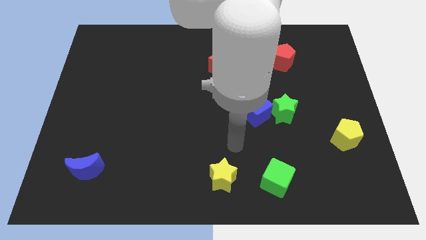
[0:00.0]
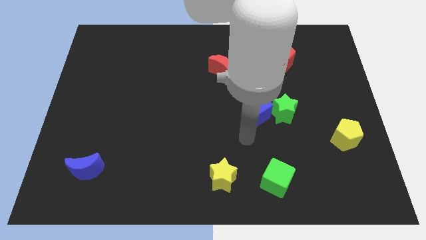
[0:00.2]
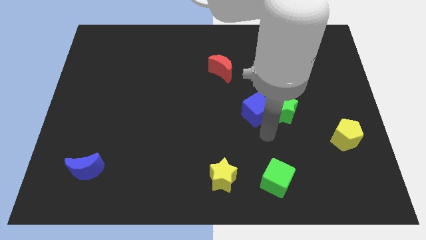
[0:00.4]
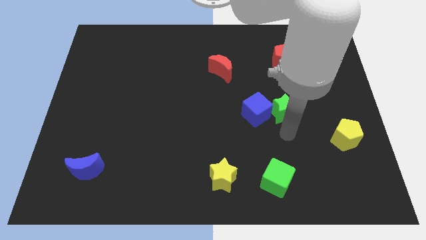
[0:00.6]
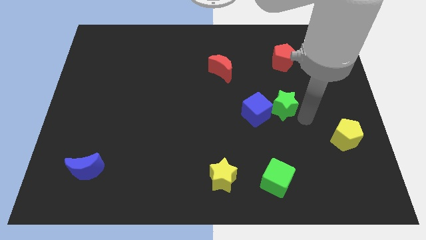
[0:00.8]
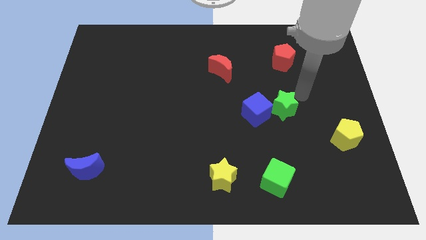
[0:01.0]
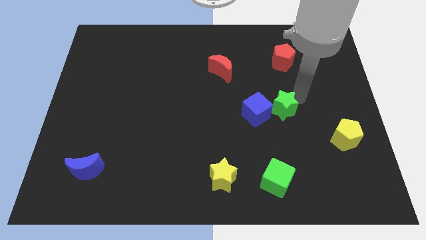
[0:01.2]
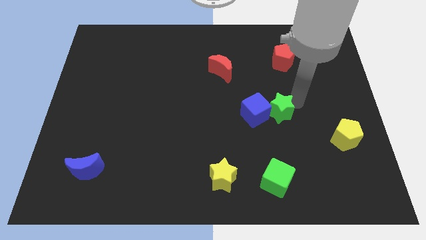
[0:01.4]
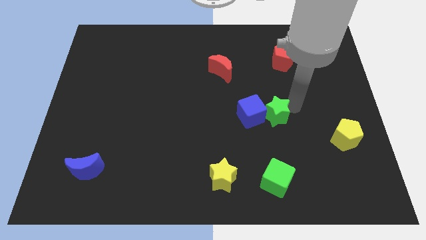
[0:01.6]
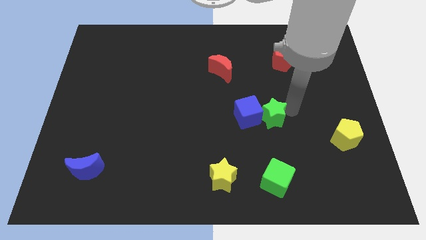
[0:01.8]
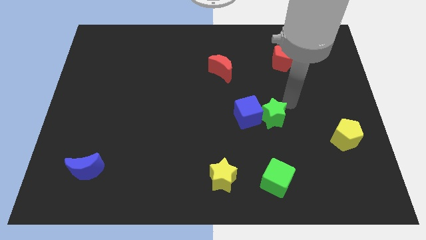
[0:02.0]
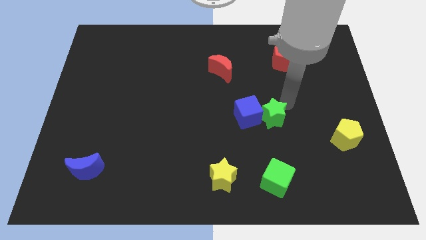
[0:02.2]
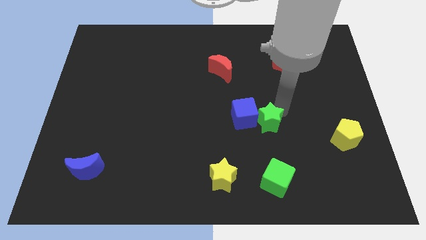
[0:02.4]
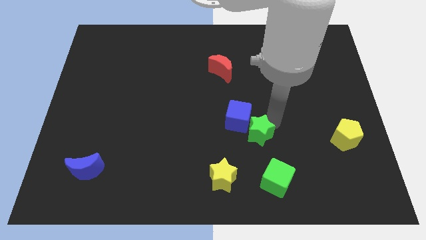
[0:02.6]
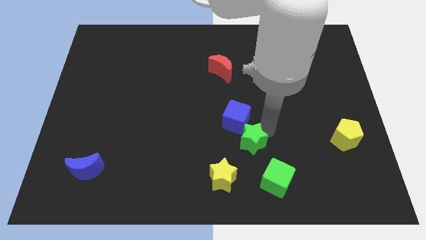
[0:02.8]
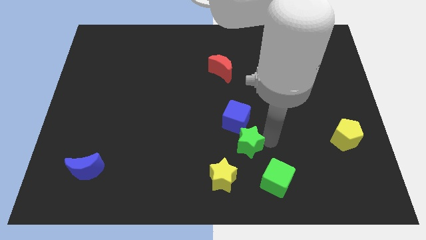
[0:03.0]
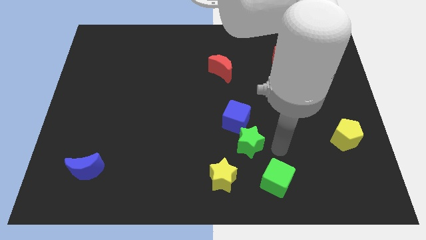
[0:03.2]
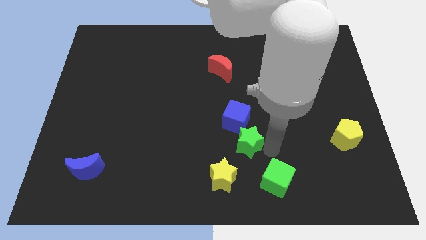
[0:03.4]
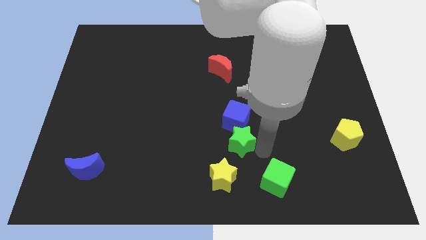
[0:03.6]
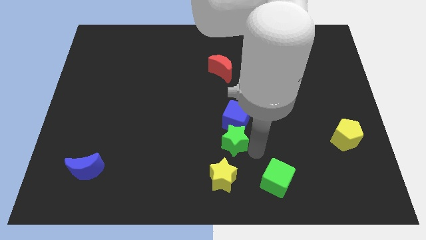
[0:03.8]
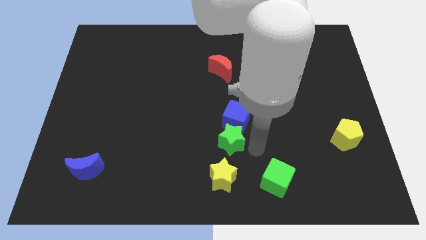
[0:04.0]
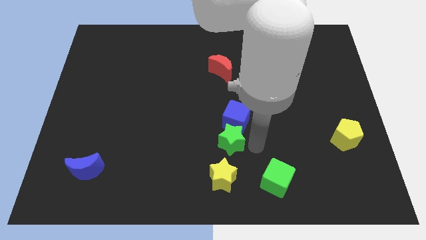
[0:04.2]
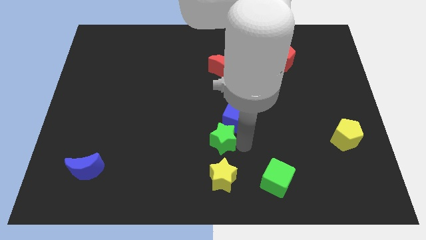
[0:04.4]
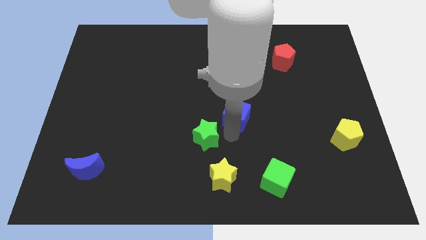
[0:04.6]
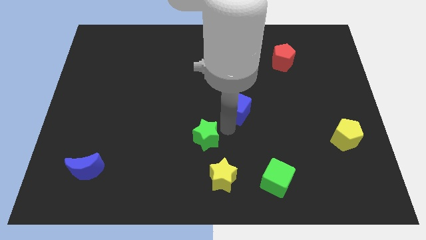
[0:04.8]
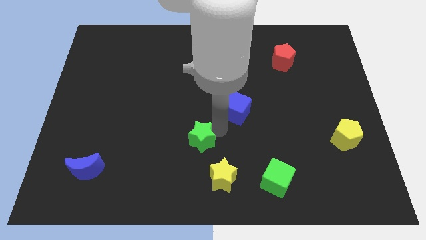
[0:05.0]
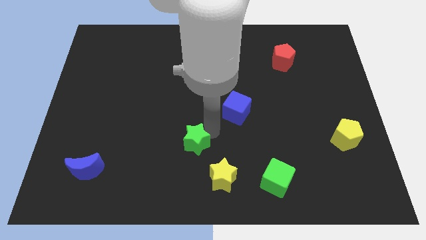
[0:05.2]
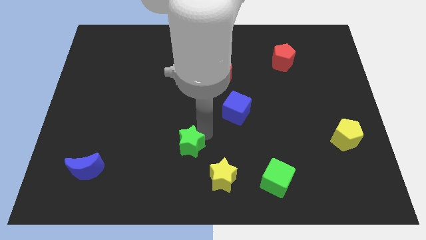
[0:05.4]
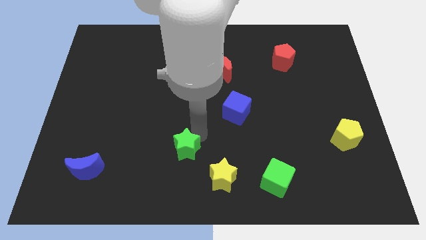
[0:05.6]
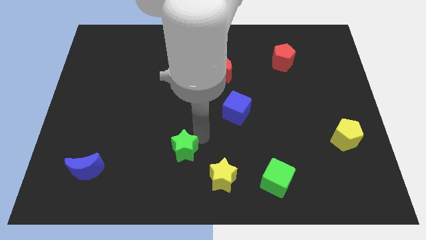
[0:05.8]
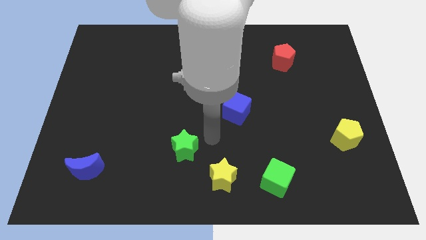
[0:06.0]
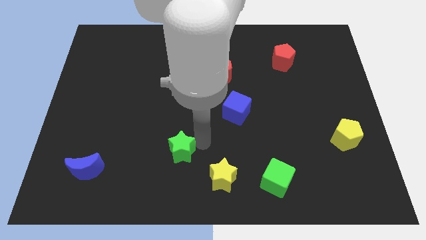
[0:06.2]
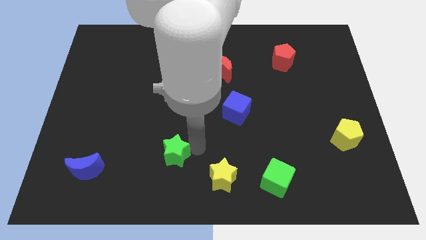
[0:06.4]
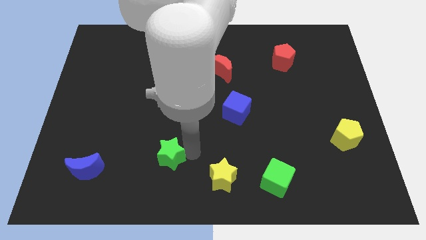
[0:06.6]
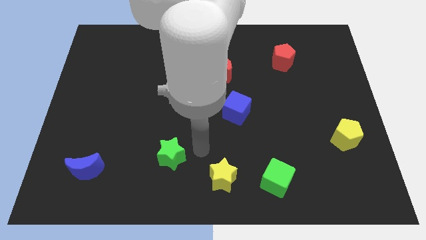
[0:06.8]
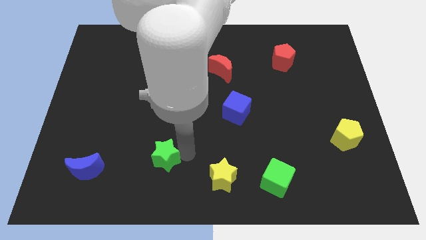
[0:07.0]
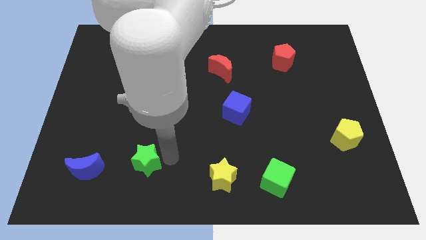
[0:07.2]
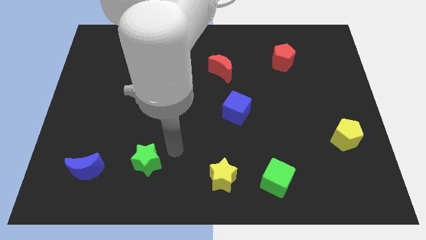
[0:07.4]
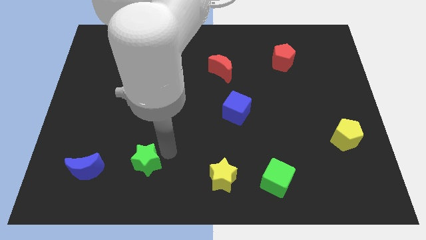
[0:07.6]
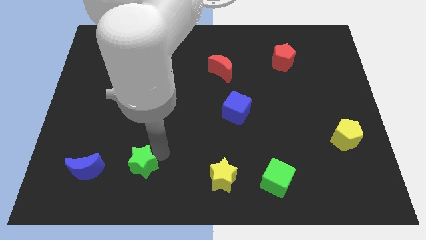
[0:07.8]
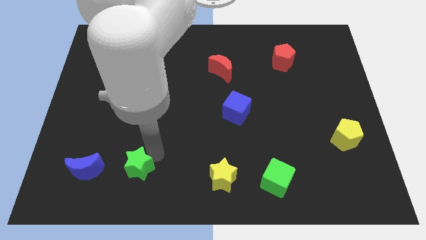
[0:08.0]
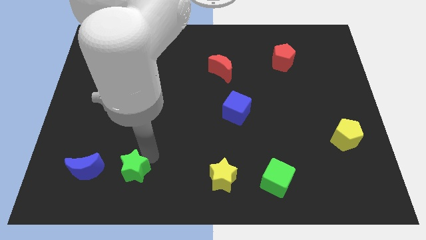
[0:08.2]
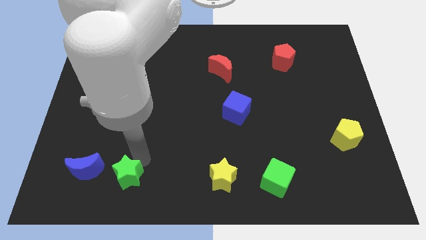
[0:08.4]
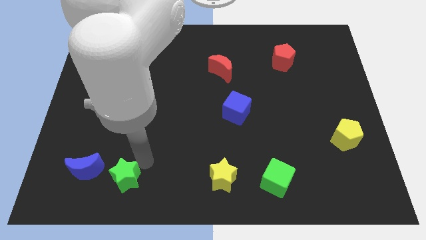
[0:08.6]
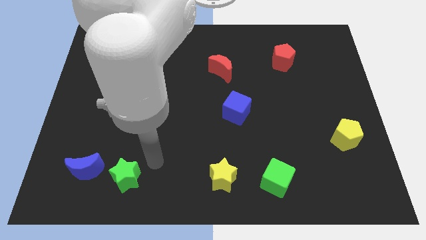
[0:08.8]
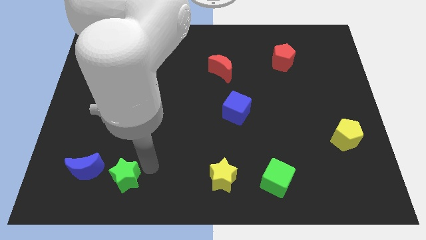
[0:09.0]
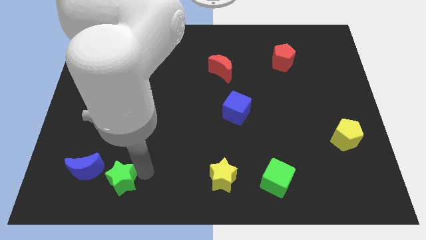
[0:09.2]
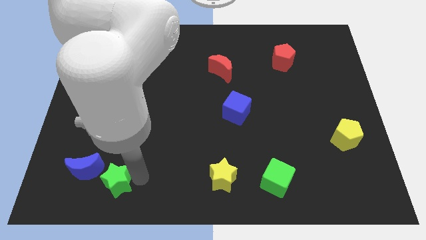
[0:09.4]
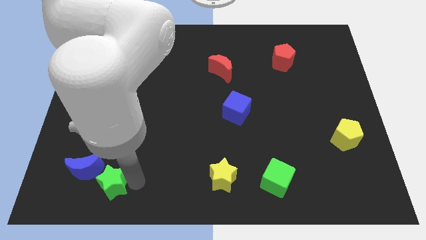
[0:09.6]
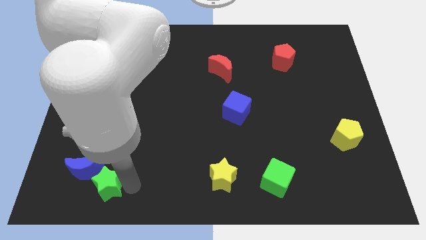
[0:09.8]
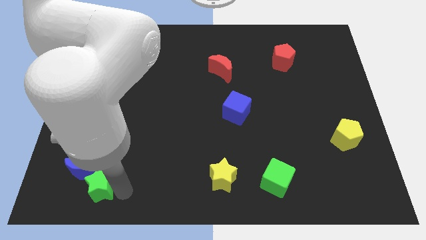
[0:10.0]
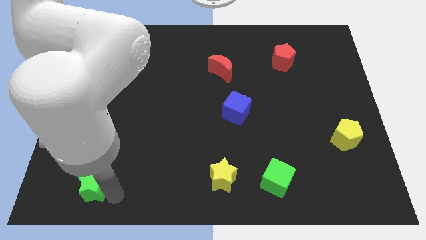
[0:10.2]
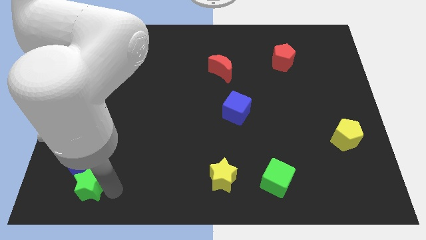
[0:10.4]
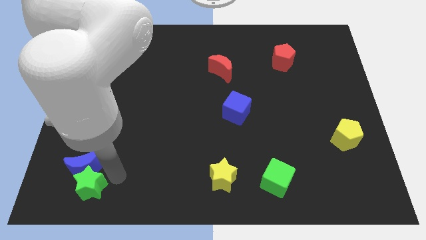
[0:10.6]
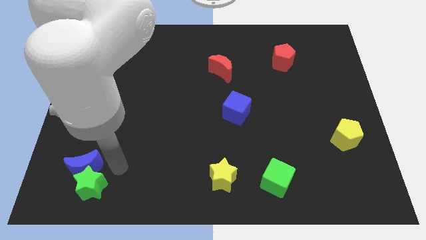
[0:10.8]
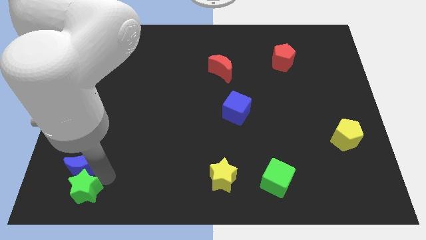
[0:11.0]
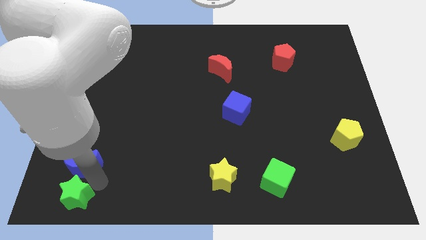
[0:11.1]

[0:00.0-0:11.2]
move the green star to the bottom left of the board

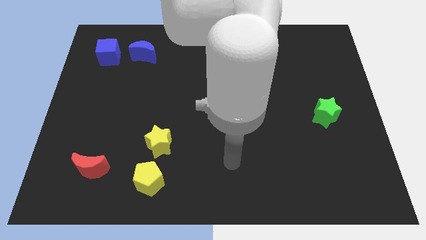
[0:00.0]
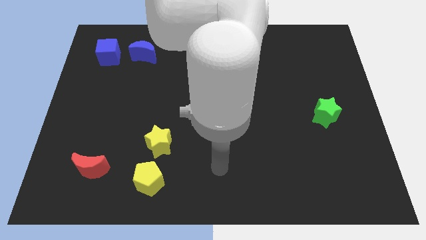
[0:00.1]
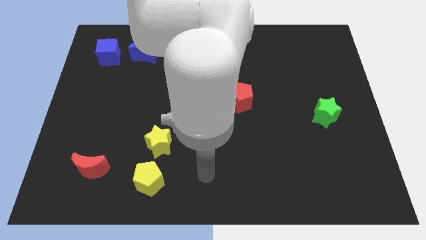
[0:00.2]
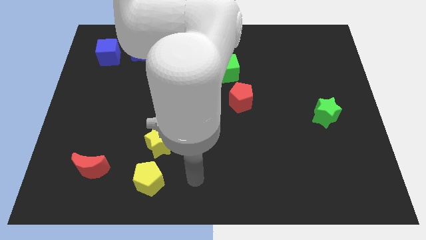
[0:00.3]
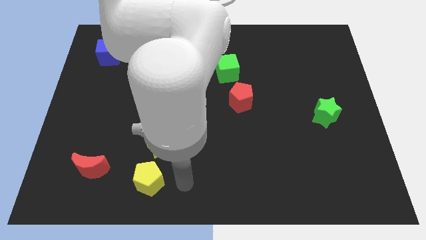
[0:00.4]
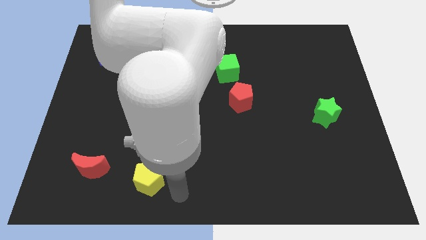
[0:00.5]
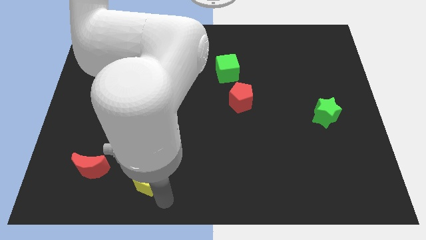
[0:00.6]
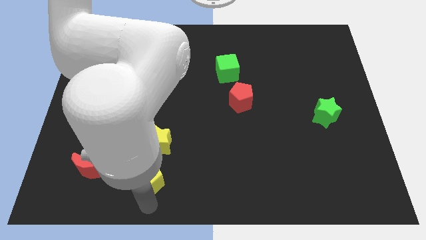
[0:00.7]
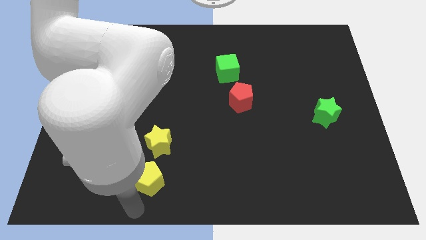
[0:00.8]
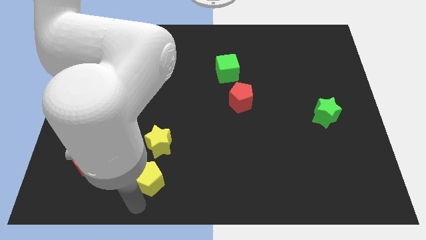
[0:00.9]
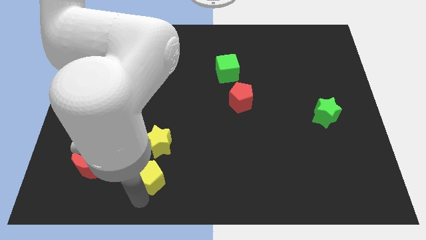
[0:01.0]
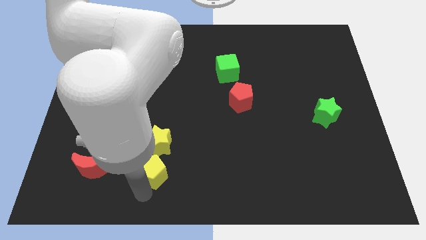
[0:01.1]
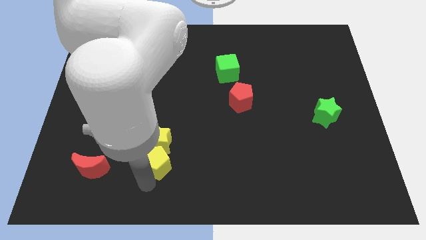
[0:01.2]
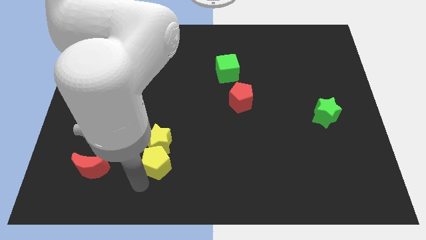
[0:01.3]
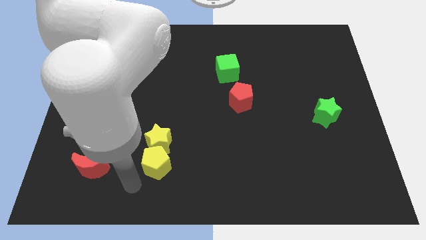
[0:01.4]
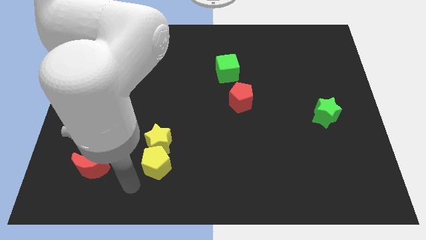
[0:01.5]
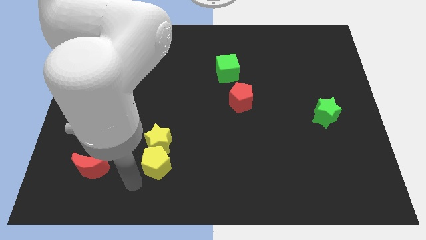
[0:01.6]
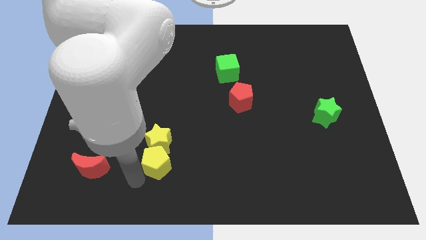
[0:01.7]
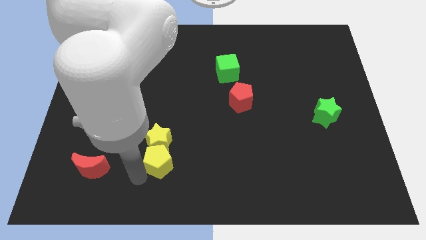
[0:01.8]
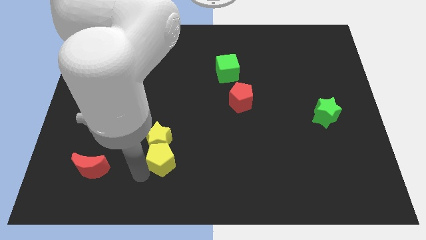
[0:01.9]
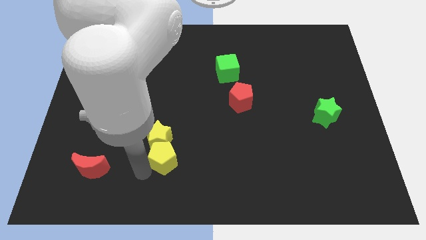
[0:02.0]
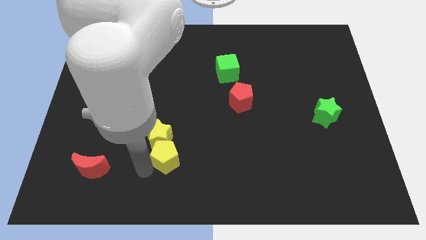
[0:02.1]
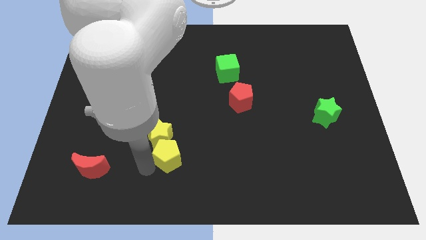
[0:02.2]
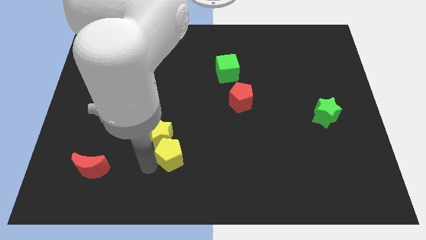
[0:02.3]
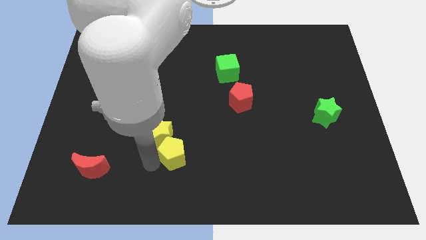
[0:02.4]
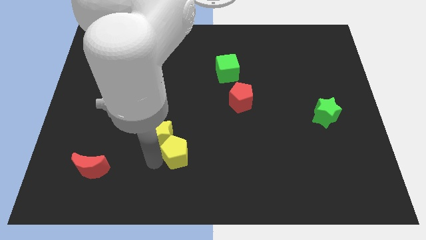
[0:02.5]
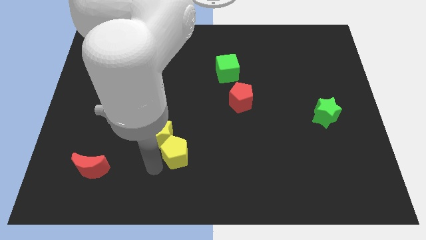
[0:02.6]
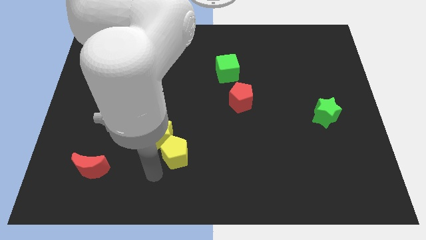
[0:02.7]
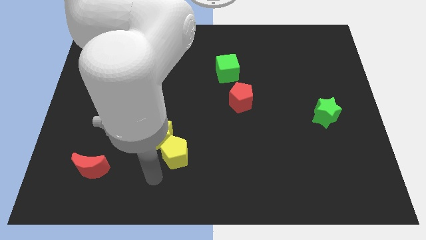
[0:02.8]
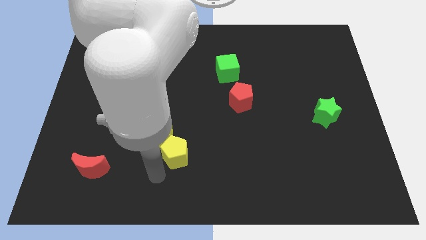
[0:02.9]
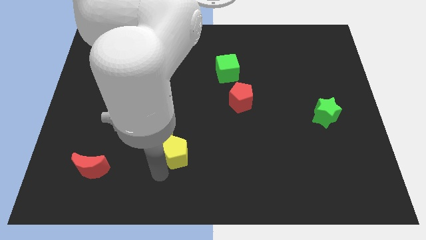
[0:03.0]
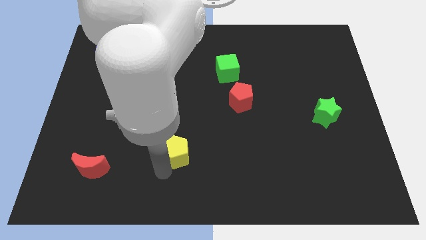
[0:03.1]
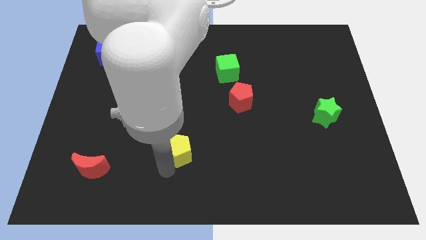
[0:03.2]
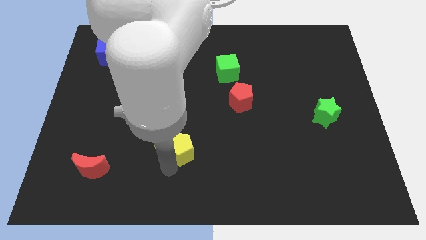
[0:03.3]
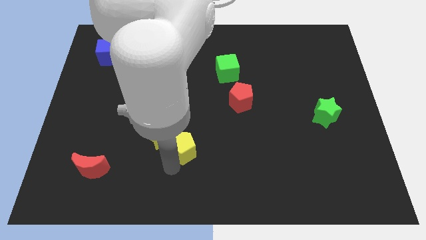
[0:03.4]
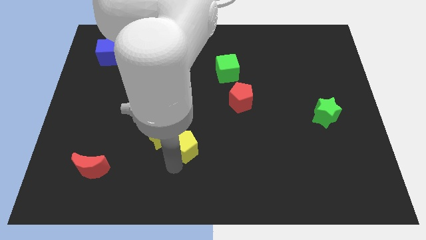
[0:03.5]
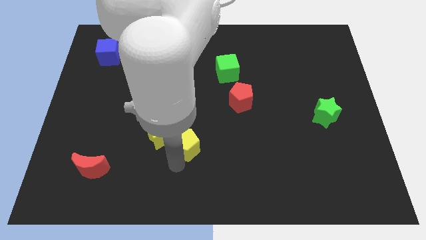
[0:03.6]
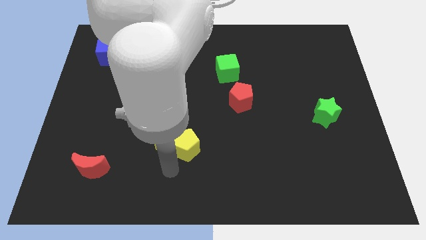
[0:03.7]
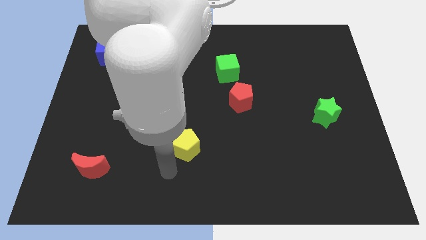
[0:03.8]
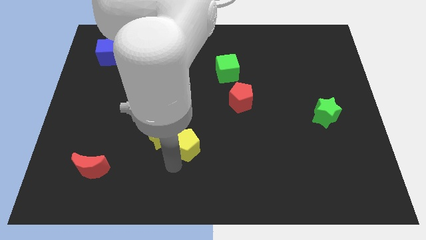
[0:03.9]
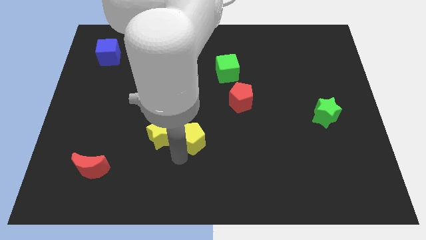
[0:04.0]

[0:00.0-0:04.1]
slide the yellow pentagon to the center of the board
